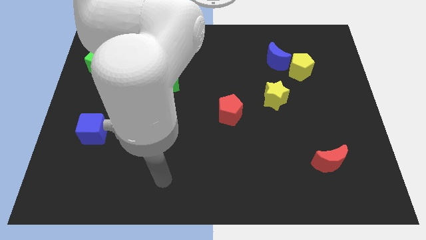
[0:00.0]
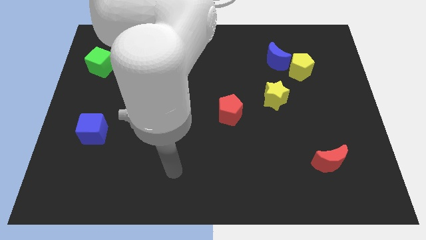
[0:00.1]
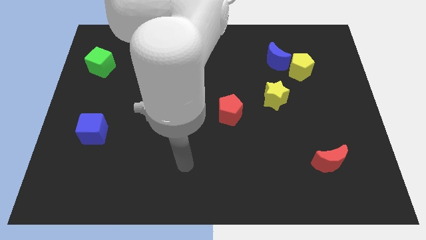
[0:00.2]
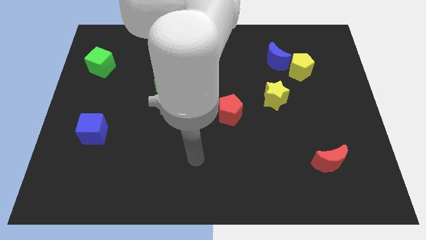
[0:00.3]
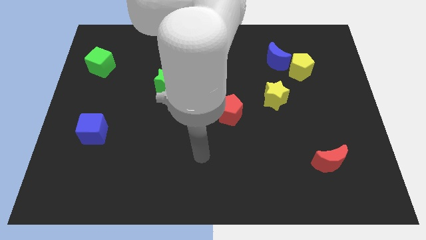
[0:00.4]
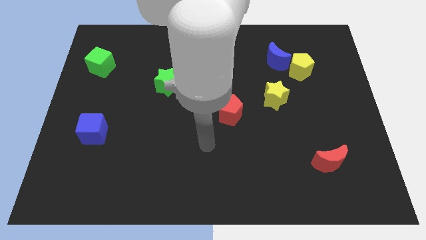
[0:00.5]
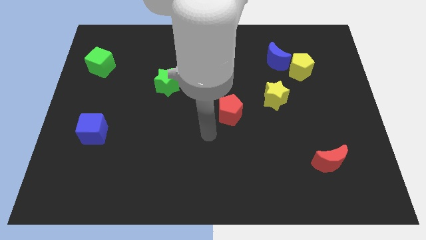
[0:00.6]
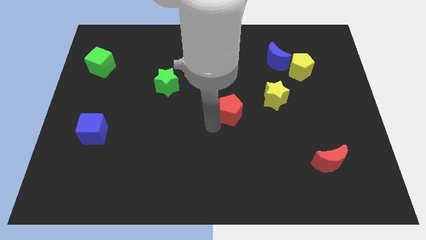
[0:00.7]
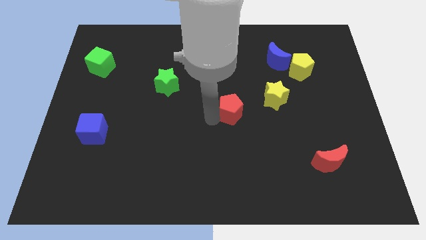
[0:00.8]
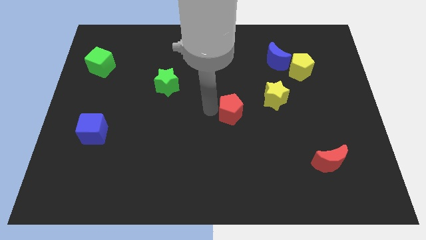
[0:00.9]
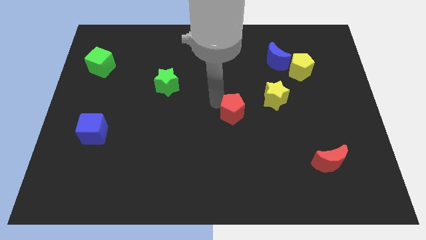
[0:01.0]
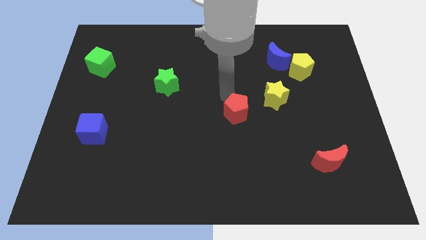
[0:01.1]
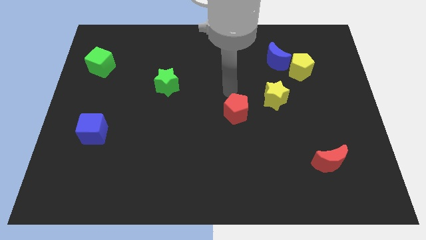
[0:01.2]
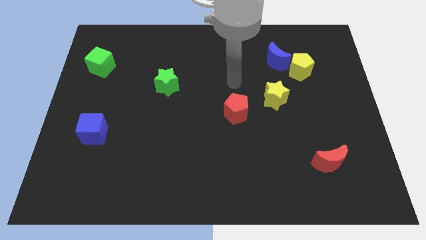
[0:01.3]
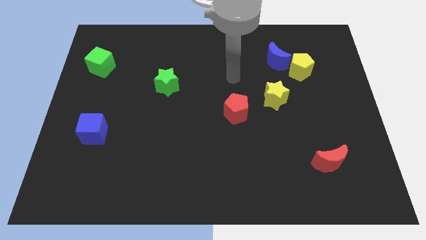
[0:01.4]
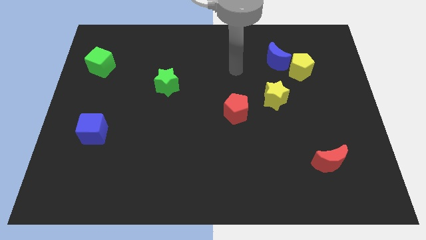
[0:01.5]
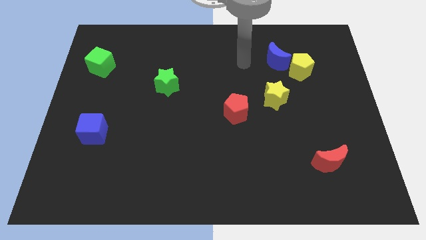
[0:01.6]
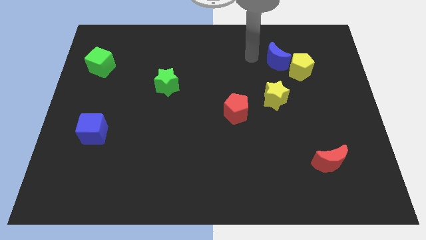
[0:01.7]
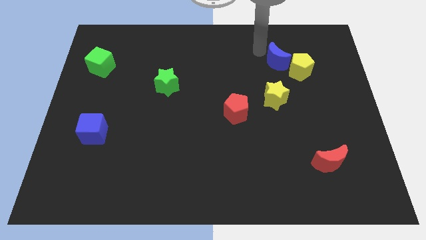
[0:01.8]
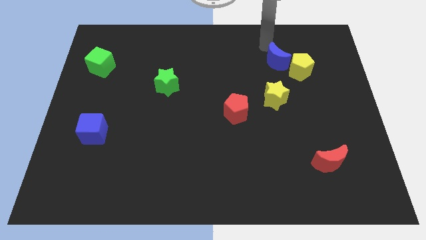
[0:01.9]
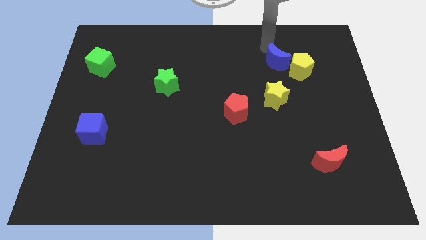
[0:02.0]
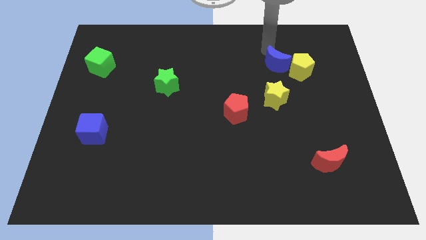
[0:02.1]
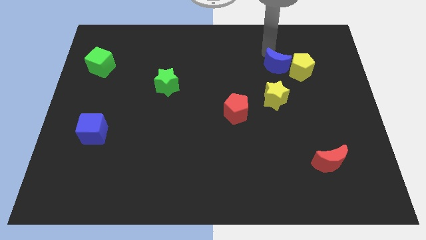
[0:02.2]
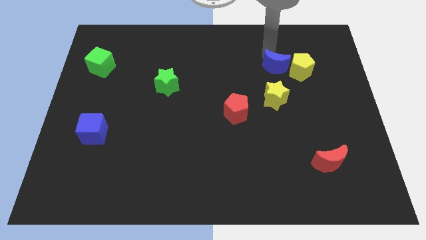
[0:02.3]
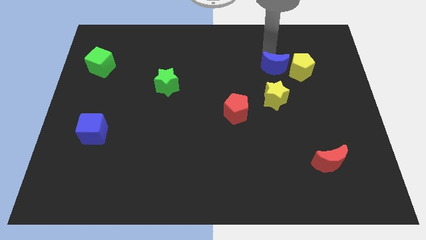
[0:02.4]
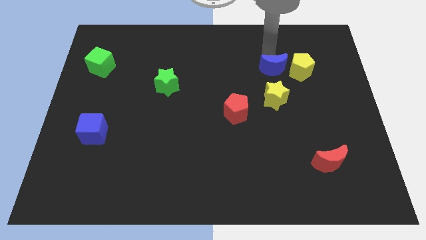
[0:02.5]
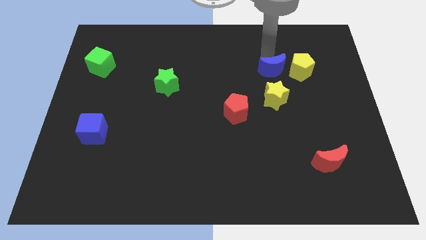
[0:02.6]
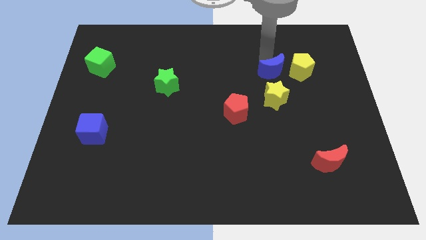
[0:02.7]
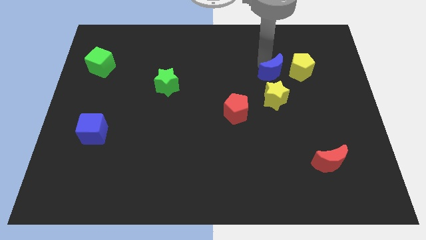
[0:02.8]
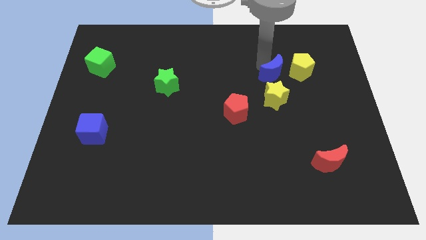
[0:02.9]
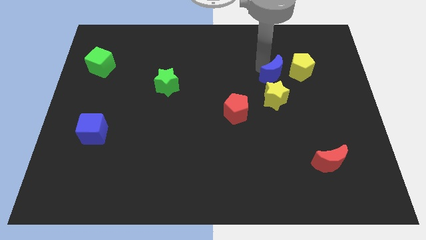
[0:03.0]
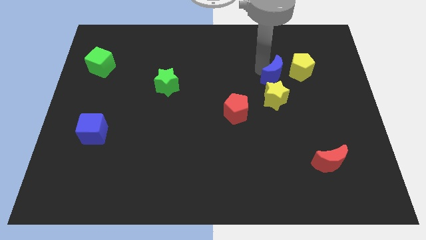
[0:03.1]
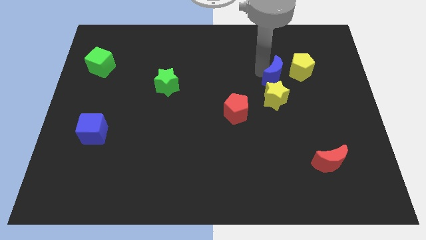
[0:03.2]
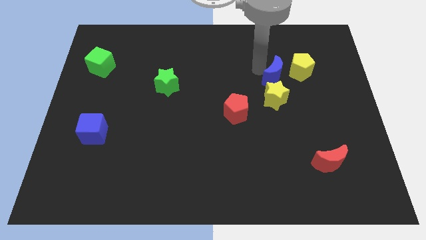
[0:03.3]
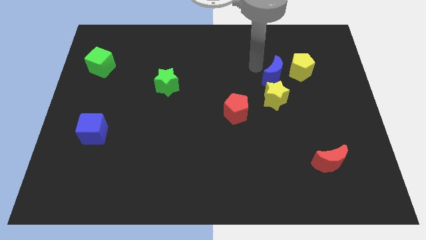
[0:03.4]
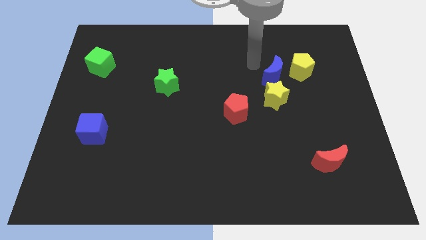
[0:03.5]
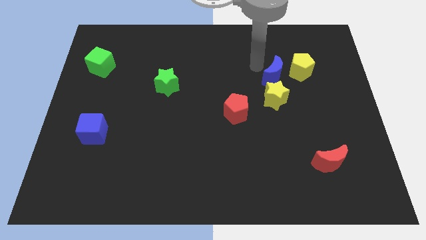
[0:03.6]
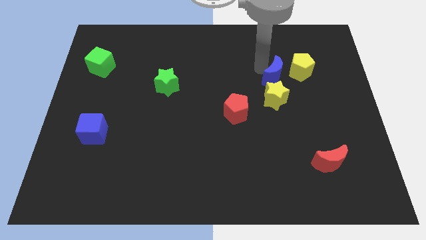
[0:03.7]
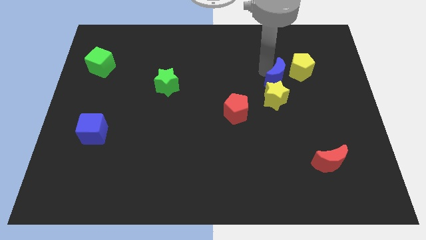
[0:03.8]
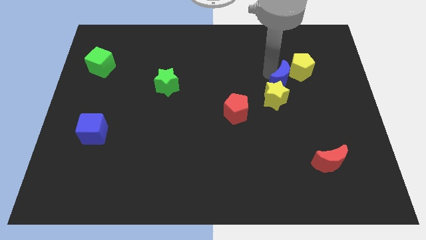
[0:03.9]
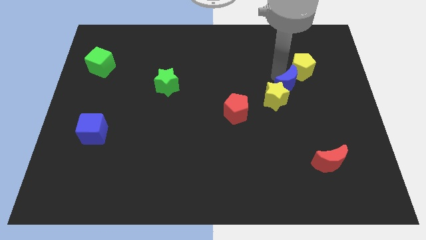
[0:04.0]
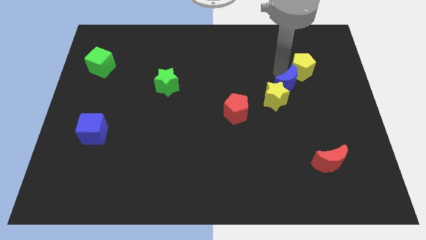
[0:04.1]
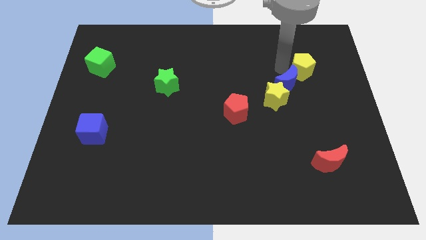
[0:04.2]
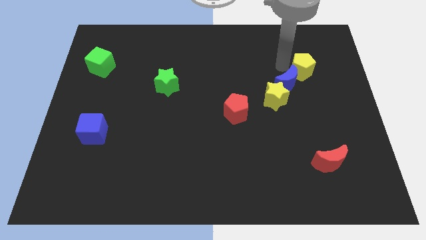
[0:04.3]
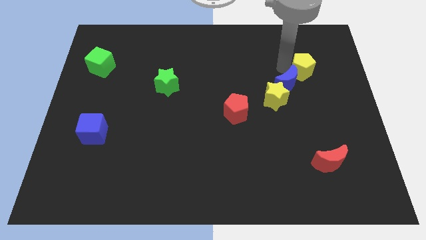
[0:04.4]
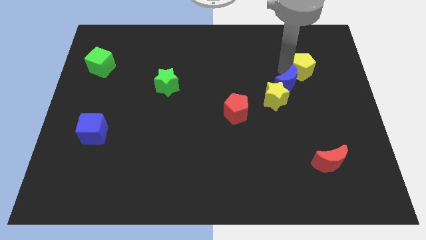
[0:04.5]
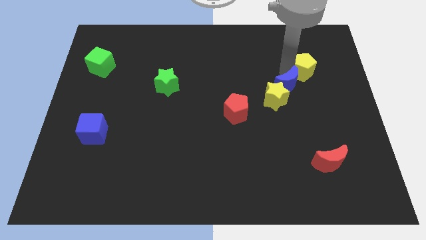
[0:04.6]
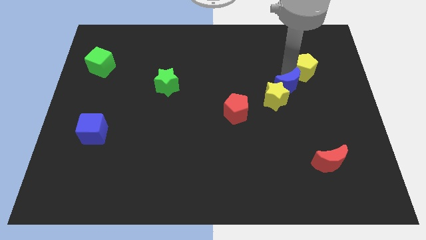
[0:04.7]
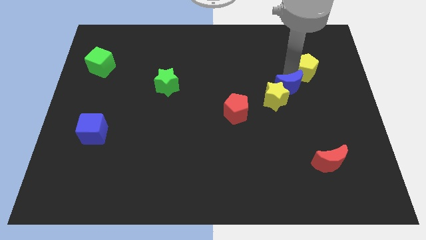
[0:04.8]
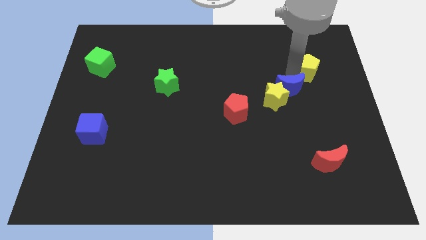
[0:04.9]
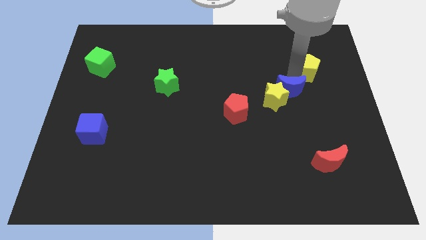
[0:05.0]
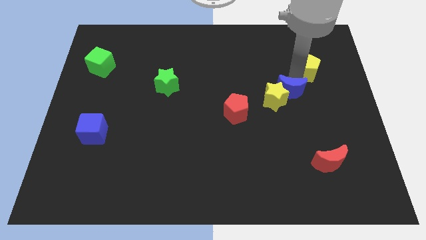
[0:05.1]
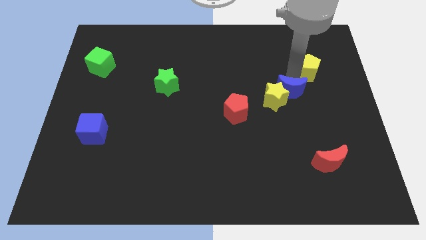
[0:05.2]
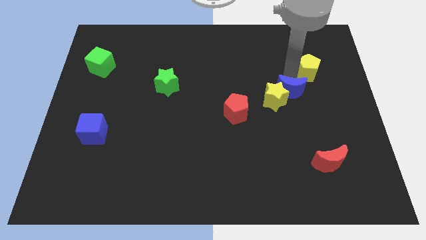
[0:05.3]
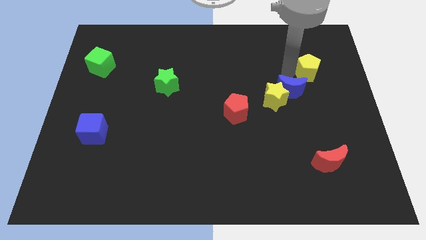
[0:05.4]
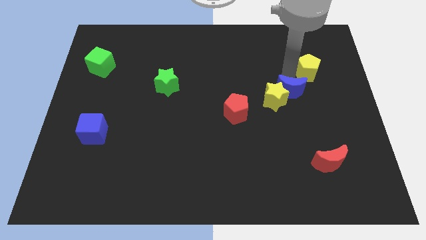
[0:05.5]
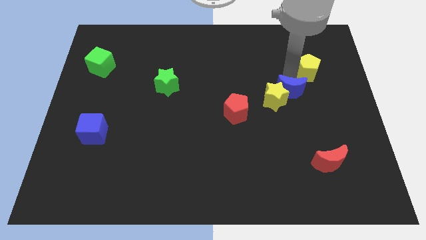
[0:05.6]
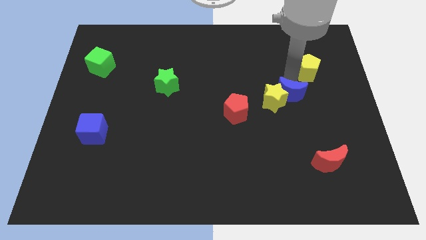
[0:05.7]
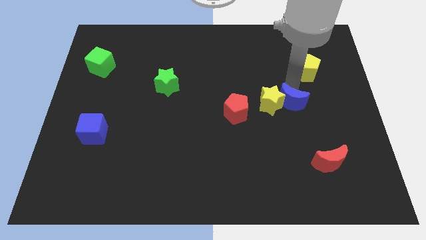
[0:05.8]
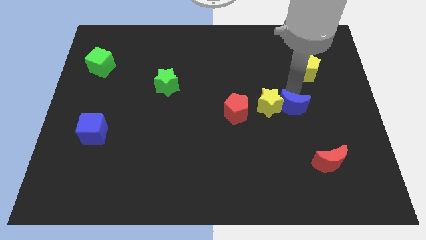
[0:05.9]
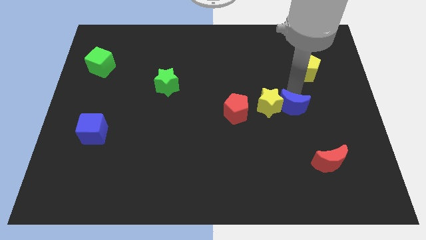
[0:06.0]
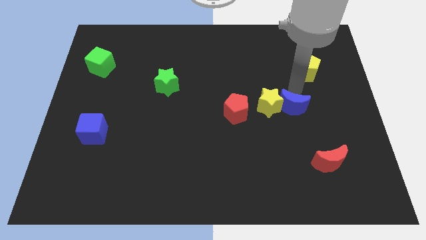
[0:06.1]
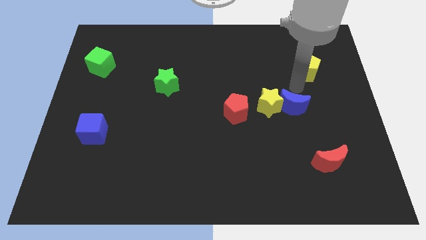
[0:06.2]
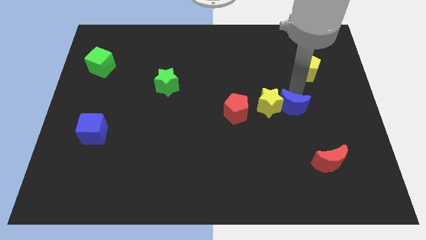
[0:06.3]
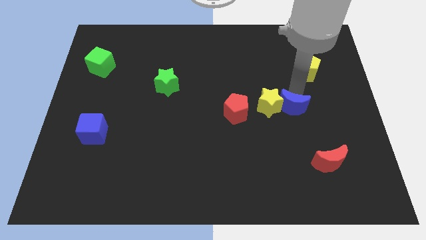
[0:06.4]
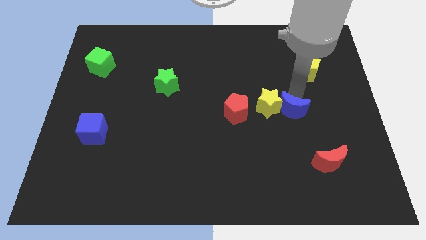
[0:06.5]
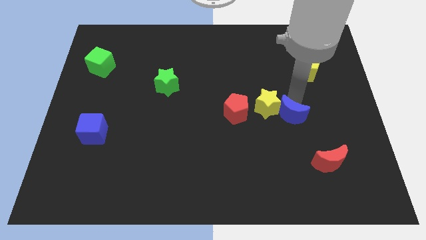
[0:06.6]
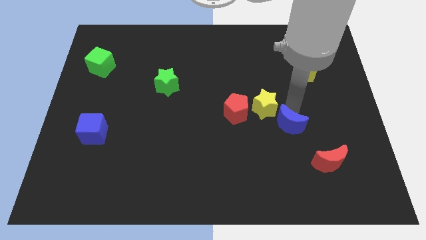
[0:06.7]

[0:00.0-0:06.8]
slide the blue moon downwards

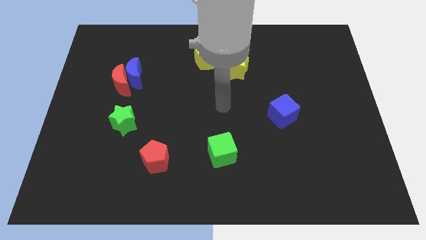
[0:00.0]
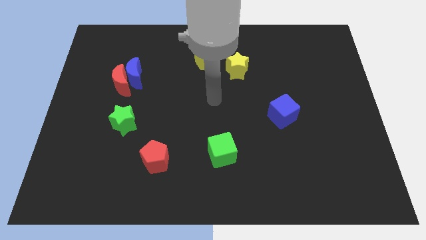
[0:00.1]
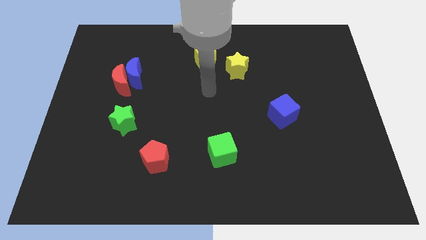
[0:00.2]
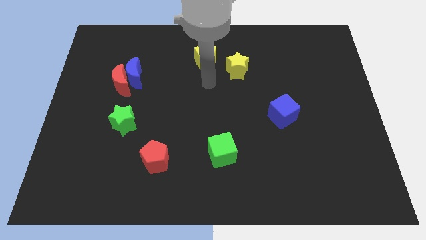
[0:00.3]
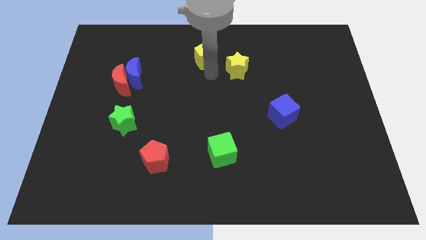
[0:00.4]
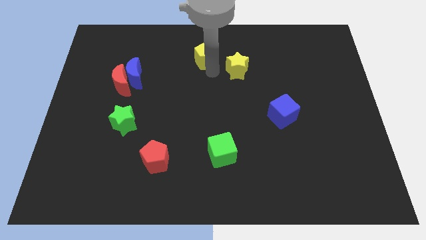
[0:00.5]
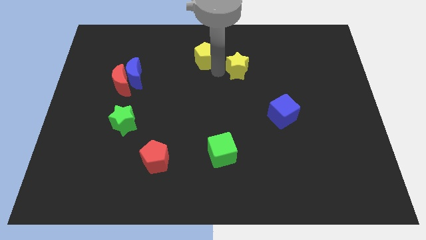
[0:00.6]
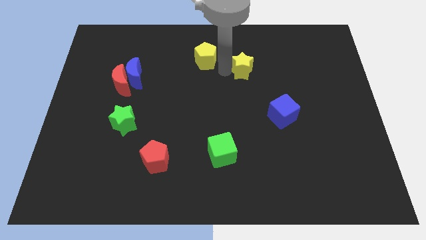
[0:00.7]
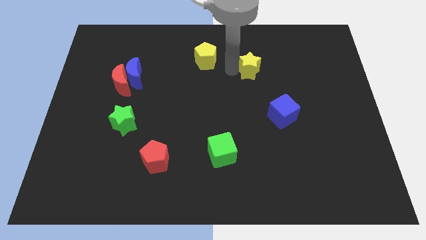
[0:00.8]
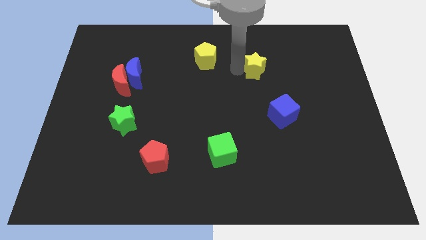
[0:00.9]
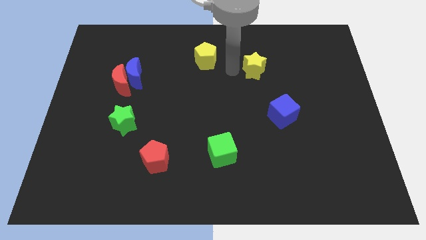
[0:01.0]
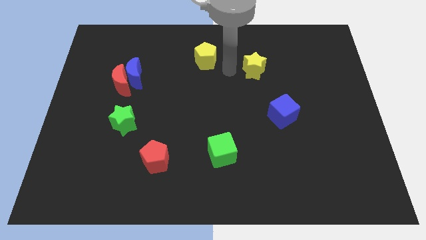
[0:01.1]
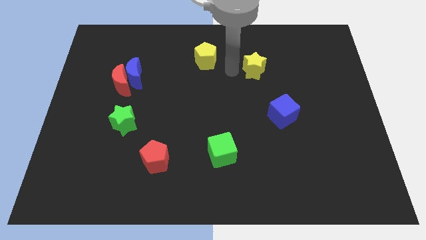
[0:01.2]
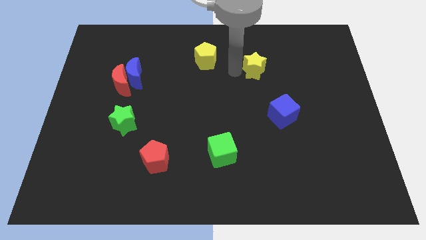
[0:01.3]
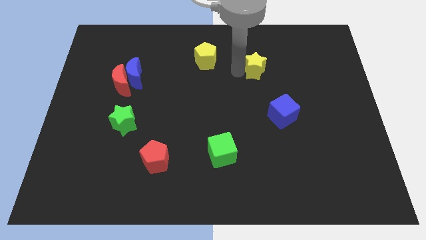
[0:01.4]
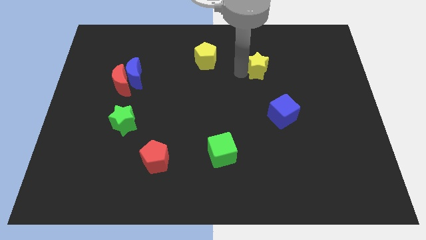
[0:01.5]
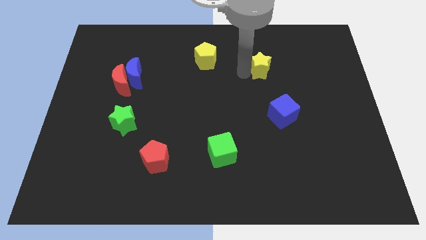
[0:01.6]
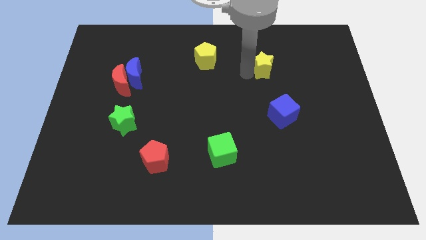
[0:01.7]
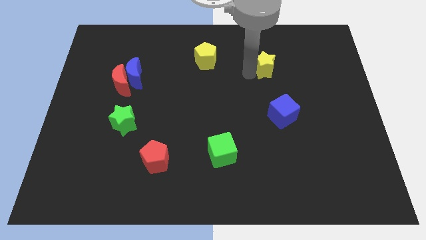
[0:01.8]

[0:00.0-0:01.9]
slightly move the yellow star to the right
